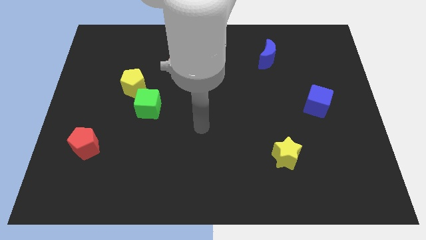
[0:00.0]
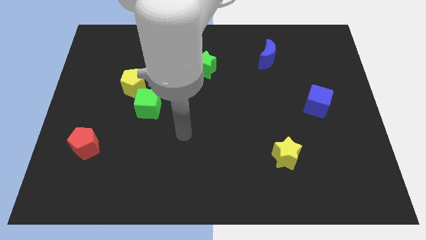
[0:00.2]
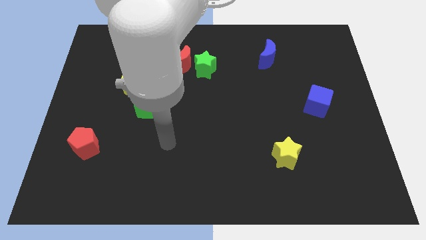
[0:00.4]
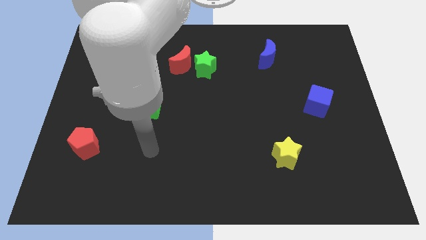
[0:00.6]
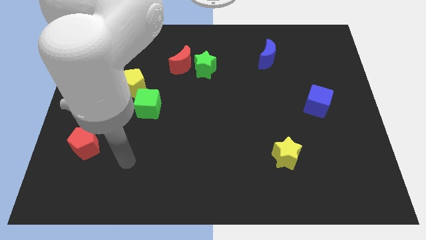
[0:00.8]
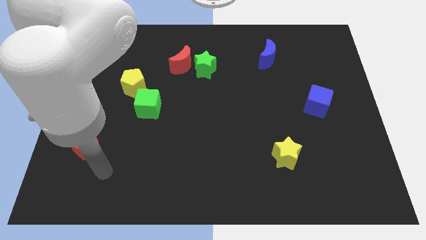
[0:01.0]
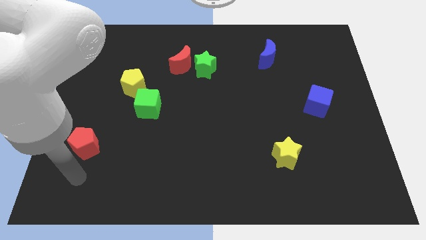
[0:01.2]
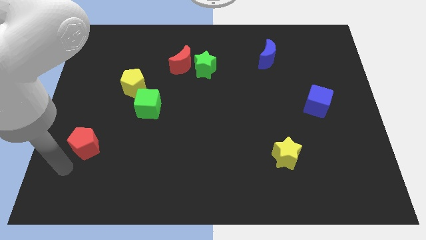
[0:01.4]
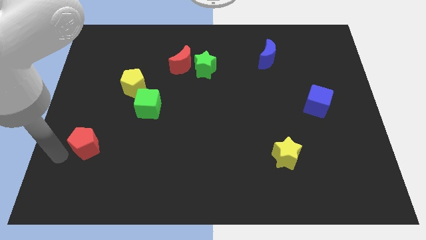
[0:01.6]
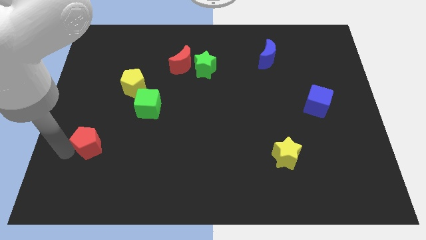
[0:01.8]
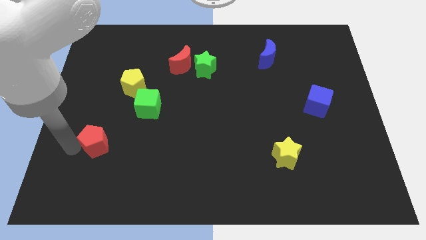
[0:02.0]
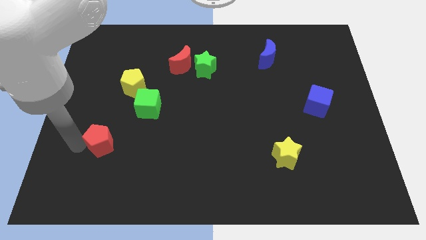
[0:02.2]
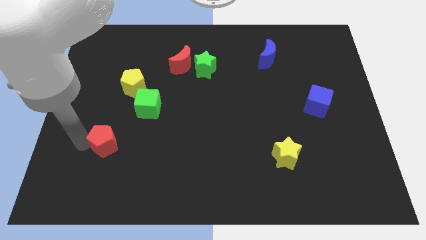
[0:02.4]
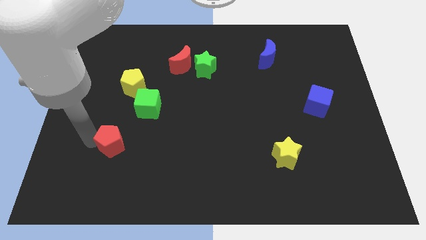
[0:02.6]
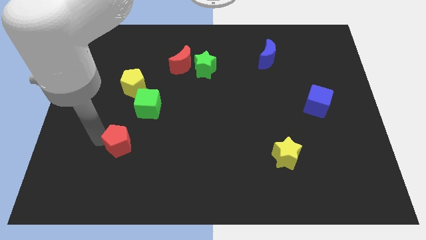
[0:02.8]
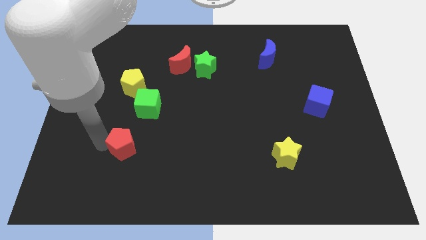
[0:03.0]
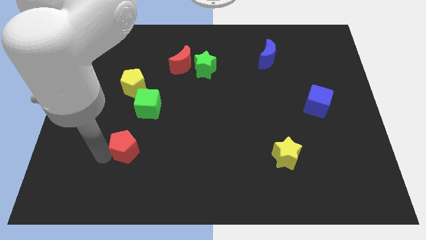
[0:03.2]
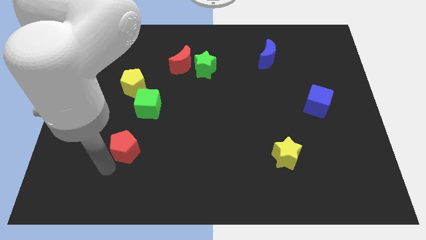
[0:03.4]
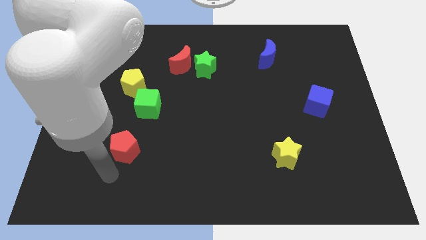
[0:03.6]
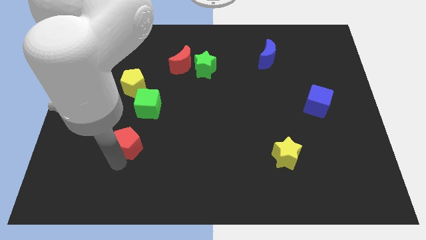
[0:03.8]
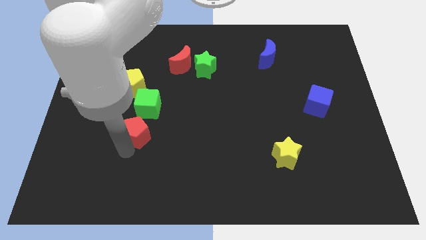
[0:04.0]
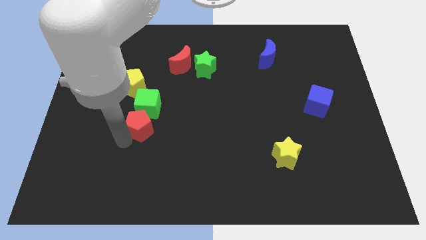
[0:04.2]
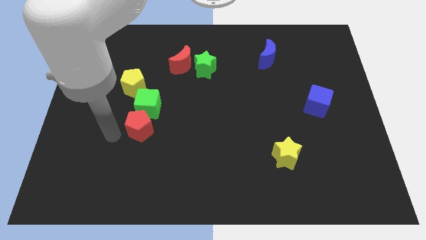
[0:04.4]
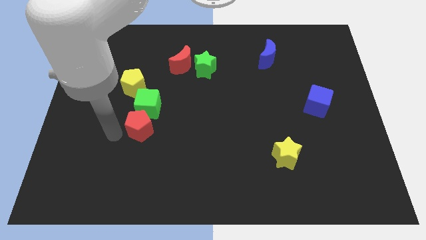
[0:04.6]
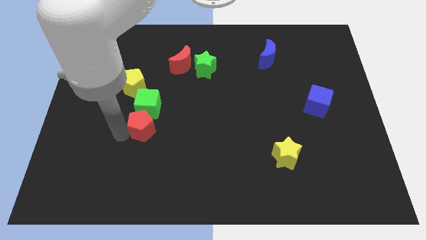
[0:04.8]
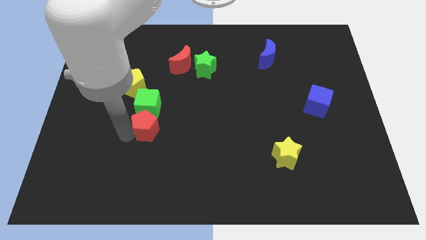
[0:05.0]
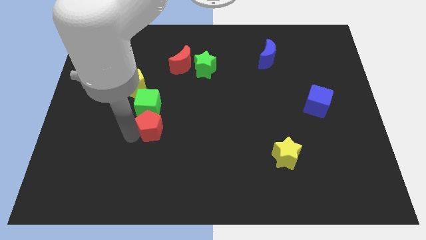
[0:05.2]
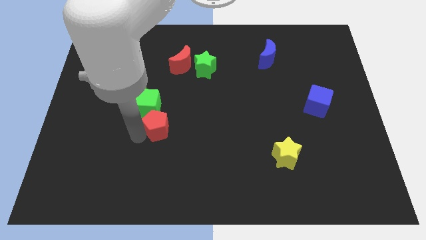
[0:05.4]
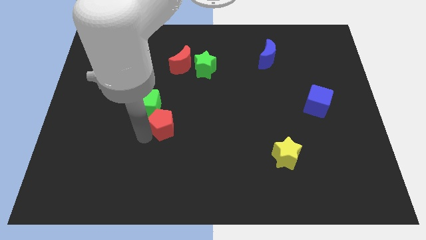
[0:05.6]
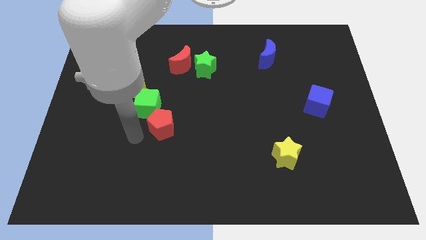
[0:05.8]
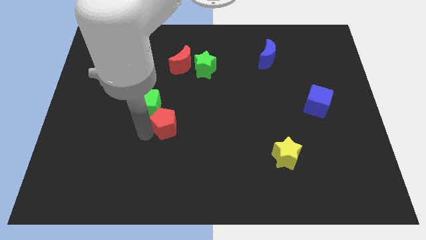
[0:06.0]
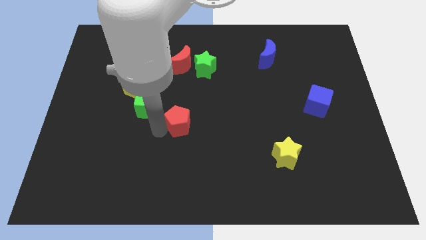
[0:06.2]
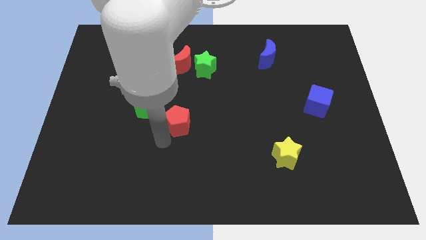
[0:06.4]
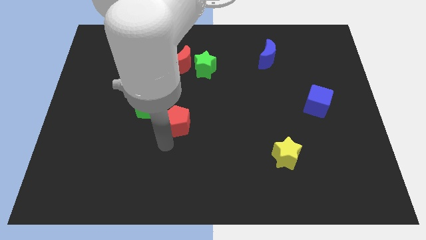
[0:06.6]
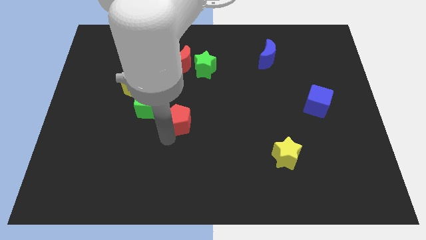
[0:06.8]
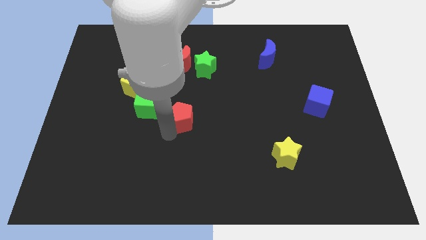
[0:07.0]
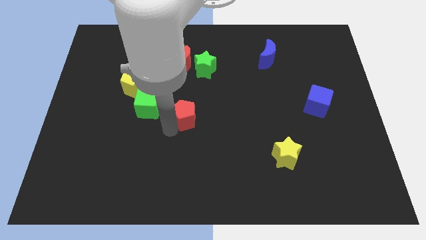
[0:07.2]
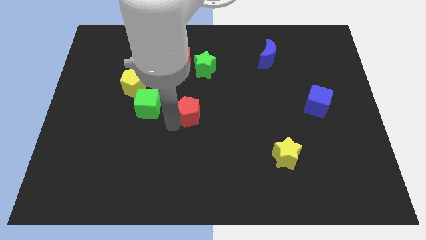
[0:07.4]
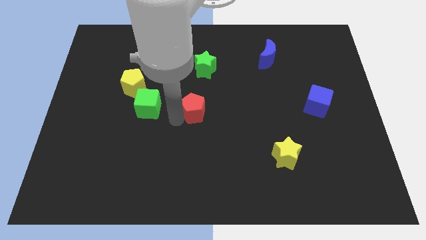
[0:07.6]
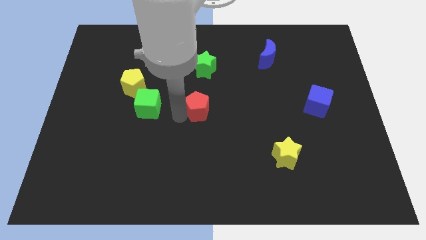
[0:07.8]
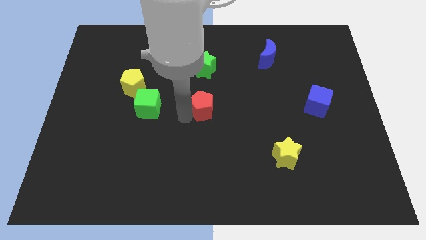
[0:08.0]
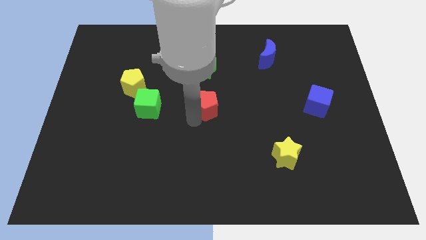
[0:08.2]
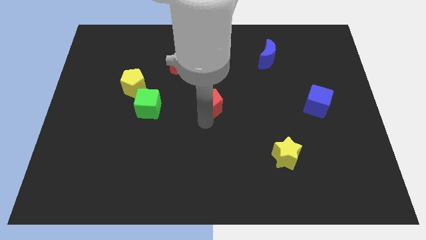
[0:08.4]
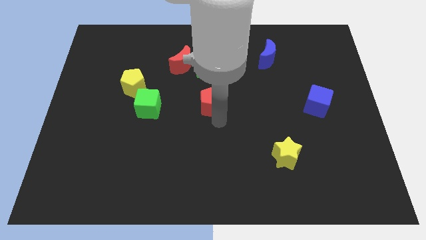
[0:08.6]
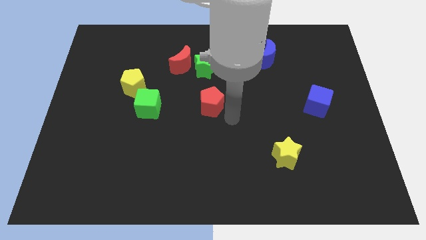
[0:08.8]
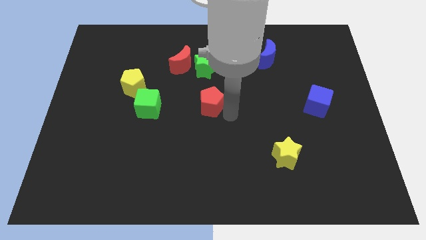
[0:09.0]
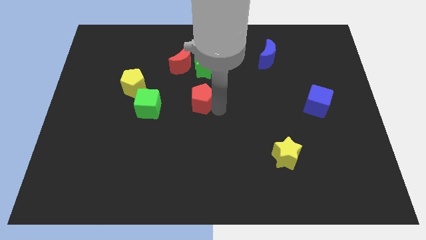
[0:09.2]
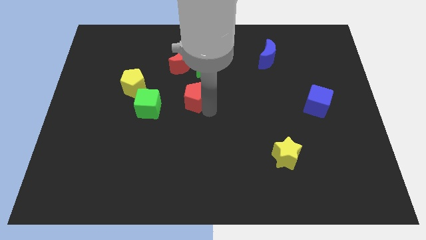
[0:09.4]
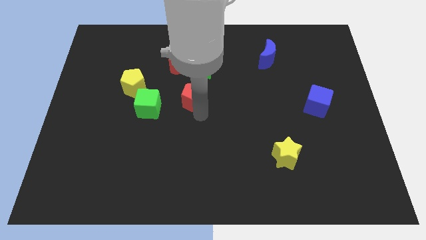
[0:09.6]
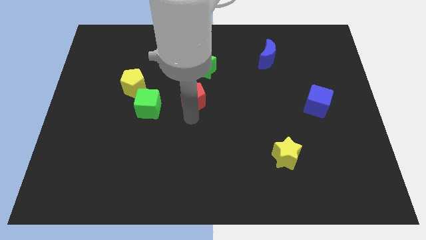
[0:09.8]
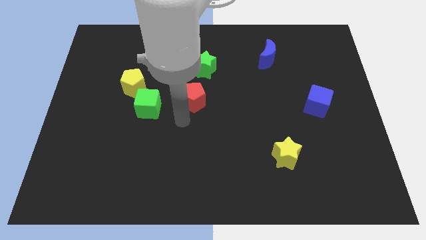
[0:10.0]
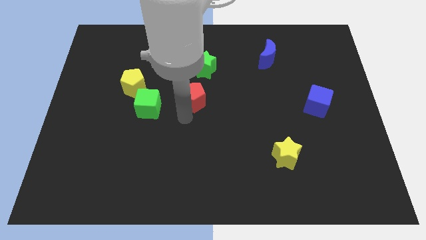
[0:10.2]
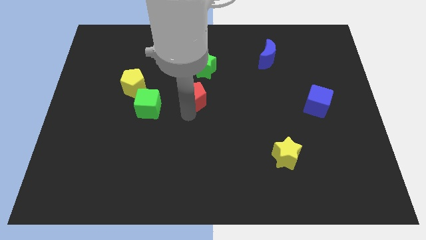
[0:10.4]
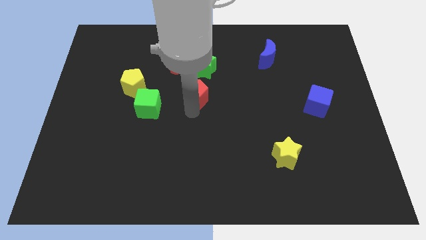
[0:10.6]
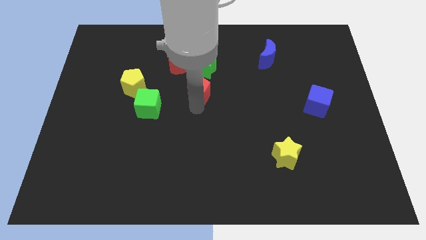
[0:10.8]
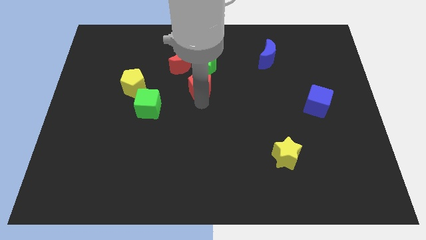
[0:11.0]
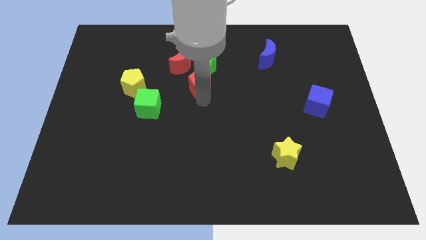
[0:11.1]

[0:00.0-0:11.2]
slide the red pentagon next to the green star

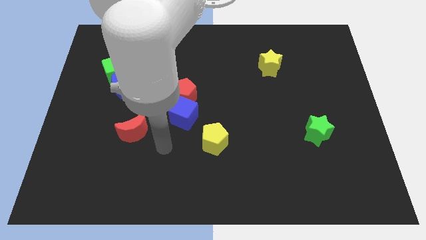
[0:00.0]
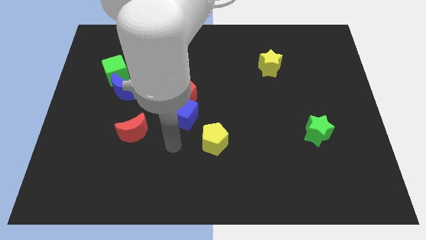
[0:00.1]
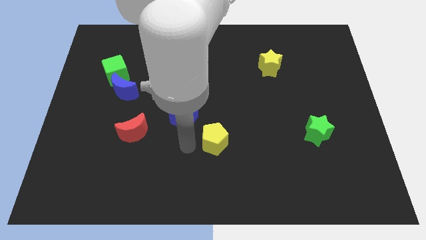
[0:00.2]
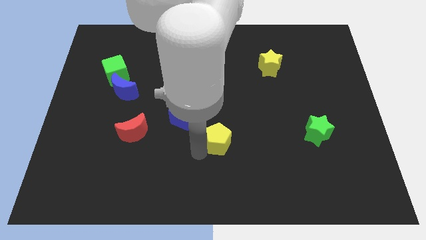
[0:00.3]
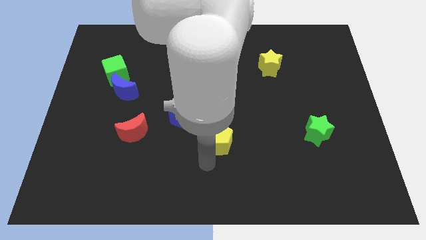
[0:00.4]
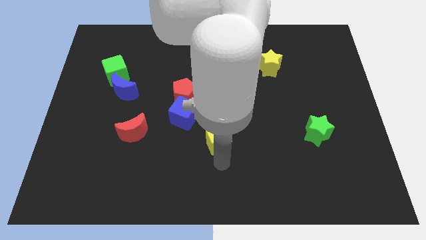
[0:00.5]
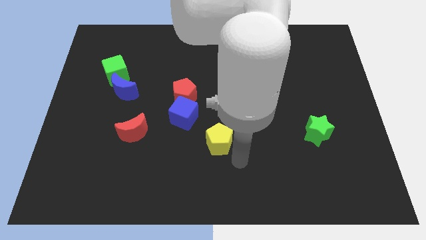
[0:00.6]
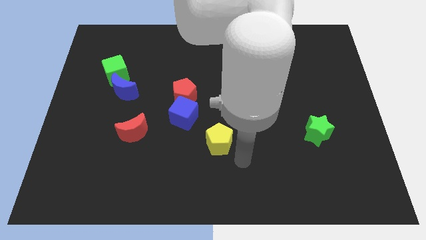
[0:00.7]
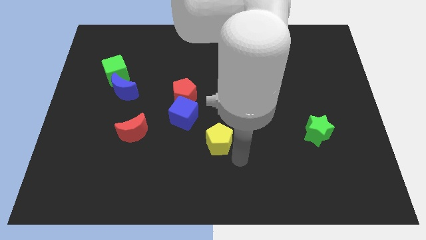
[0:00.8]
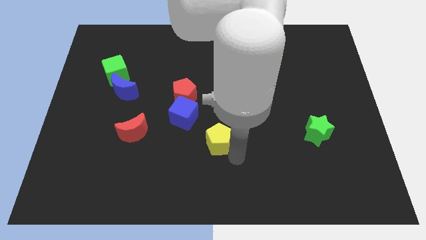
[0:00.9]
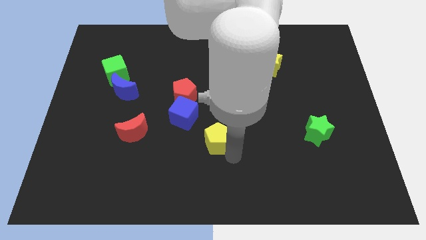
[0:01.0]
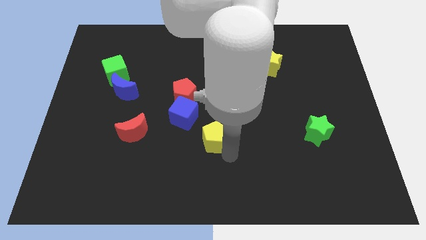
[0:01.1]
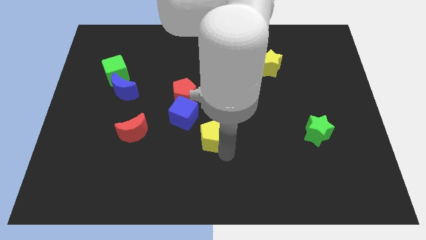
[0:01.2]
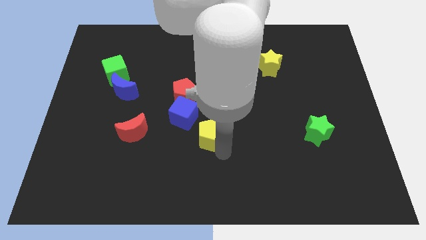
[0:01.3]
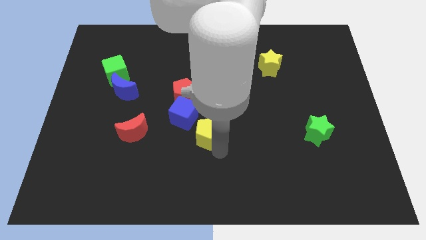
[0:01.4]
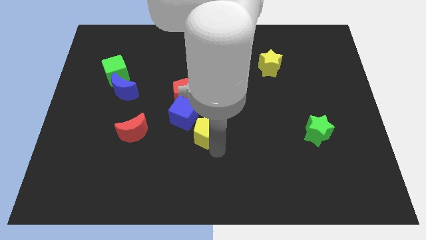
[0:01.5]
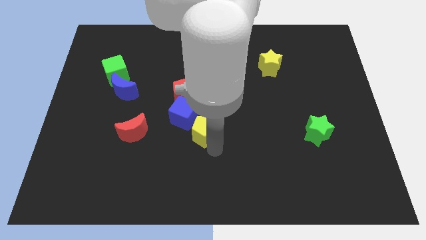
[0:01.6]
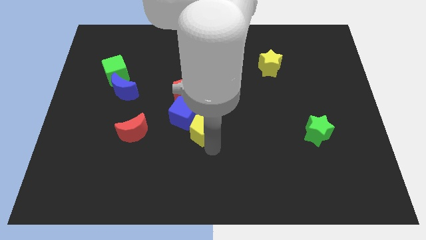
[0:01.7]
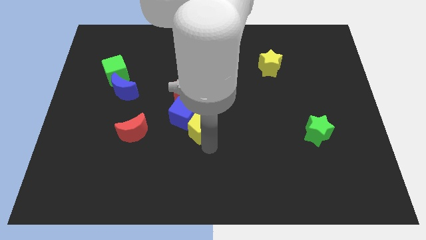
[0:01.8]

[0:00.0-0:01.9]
push the yellow pentagon towards the blue cube
